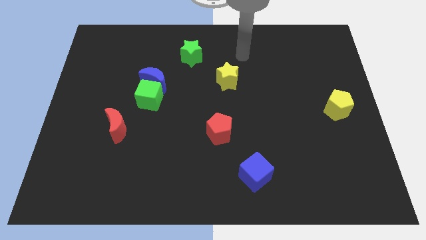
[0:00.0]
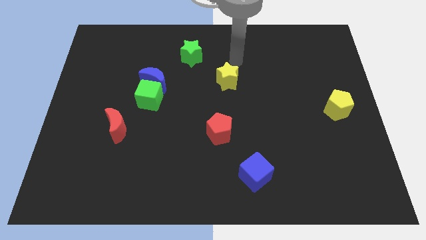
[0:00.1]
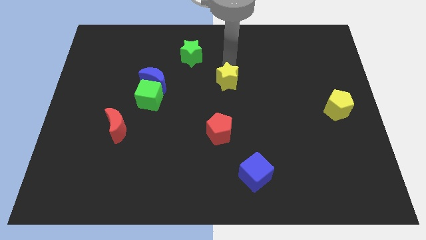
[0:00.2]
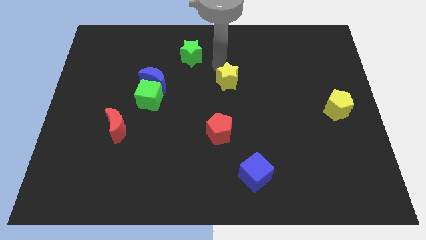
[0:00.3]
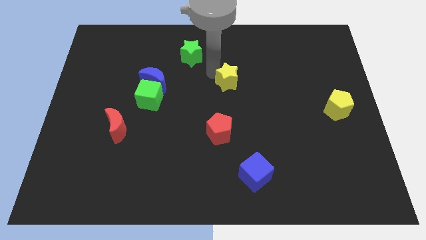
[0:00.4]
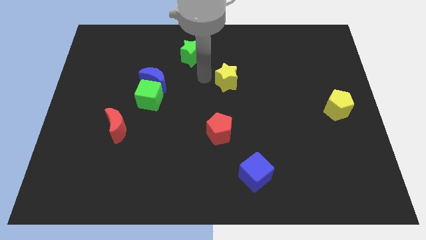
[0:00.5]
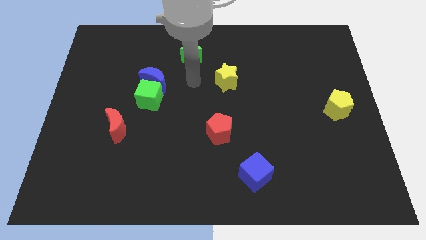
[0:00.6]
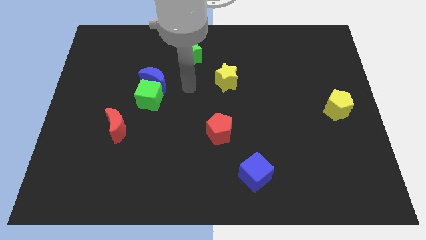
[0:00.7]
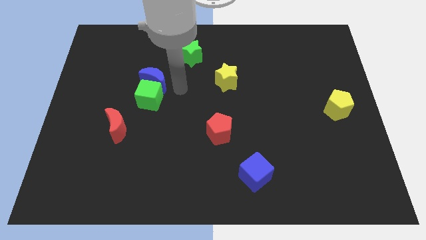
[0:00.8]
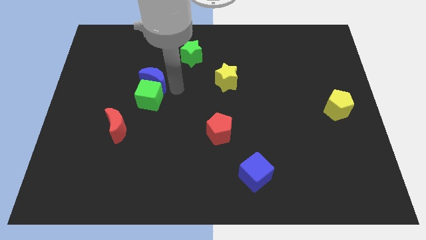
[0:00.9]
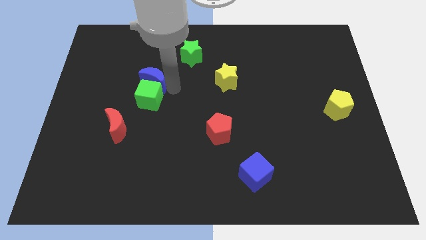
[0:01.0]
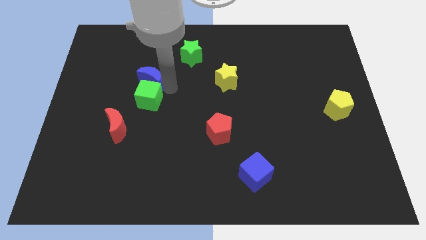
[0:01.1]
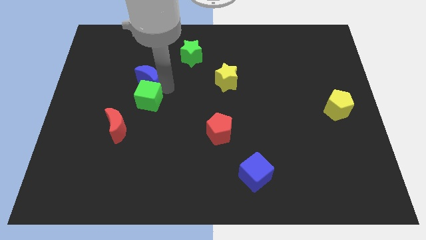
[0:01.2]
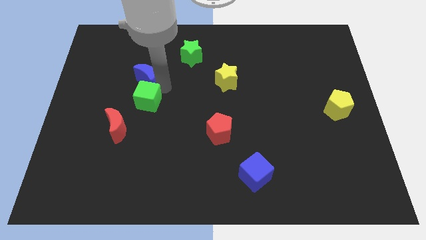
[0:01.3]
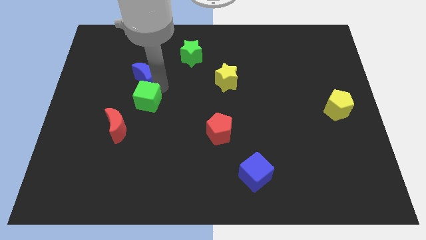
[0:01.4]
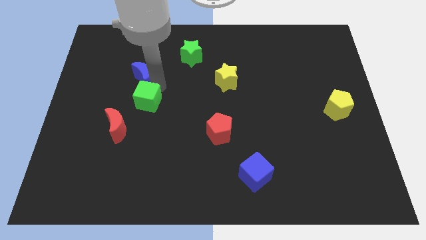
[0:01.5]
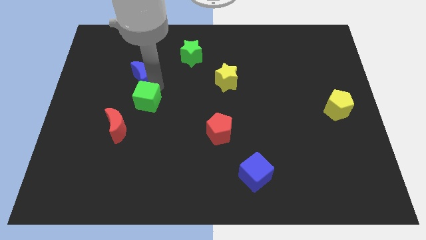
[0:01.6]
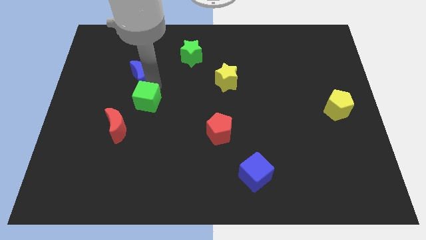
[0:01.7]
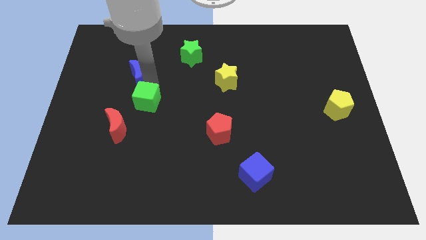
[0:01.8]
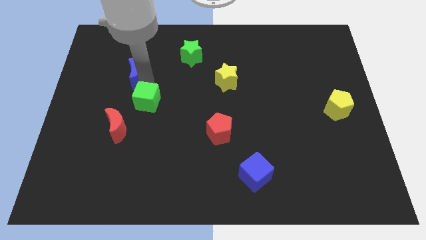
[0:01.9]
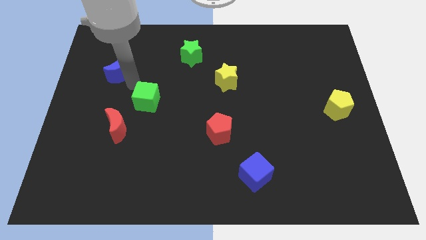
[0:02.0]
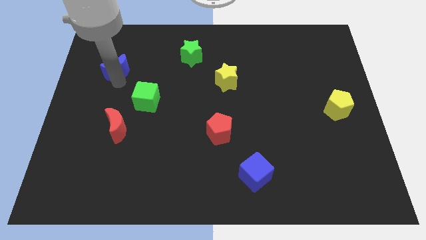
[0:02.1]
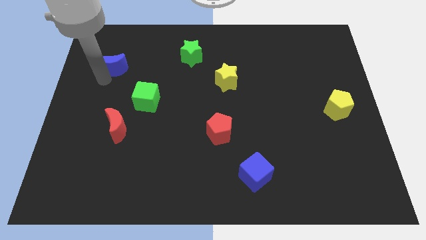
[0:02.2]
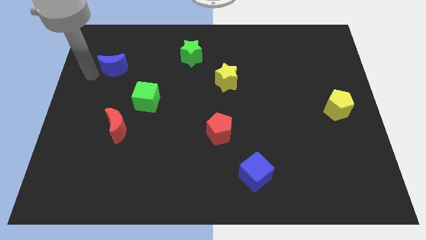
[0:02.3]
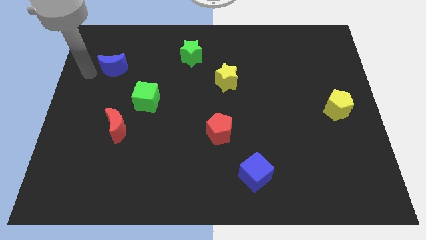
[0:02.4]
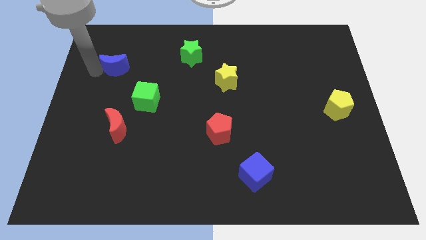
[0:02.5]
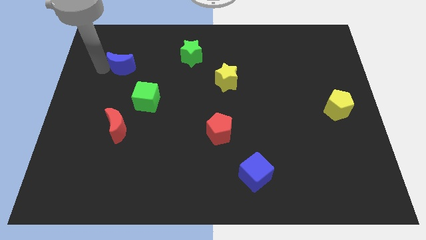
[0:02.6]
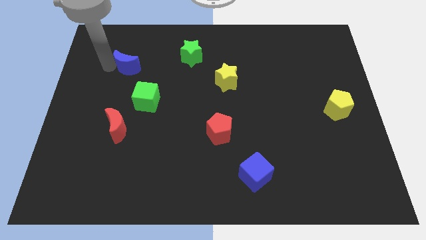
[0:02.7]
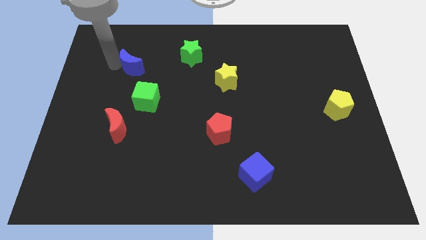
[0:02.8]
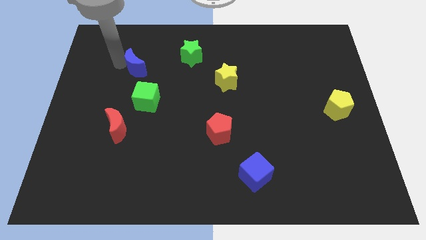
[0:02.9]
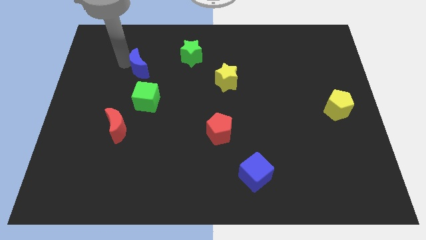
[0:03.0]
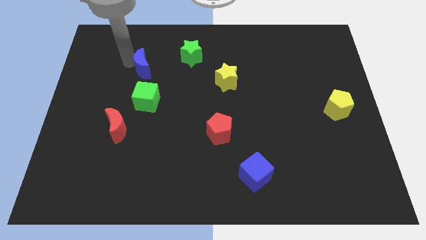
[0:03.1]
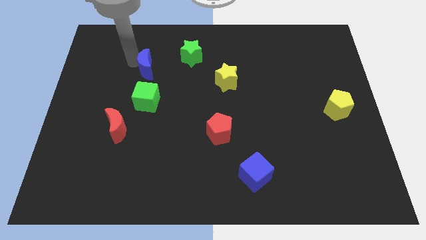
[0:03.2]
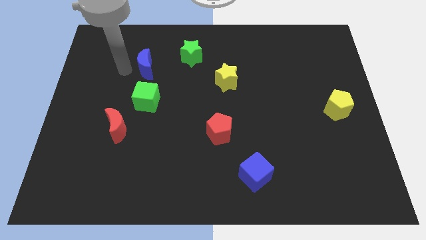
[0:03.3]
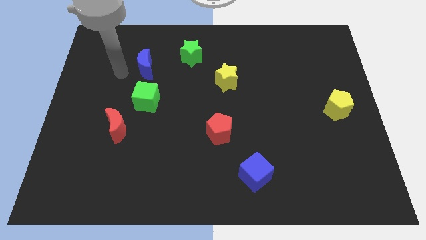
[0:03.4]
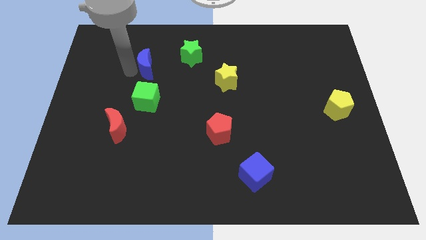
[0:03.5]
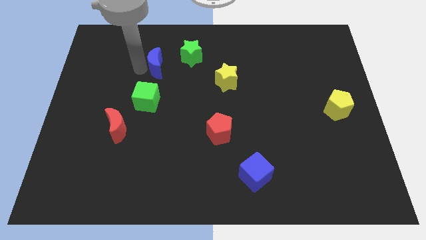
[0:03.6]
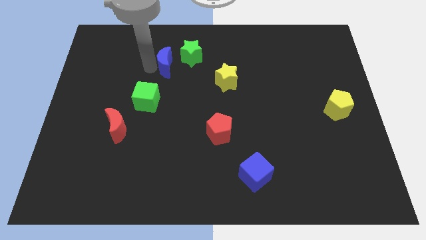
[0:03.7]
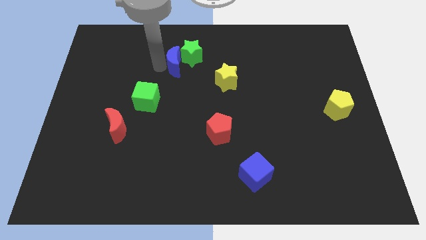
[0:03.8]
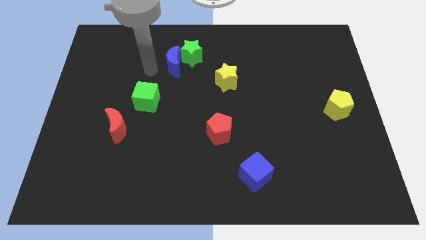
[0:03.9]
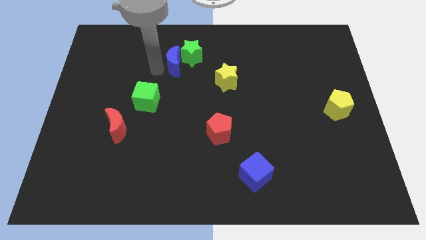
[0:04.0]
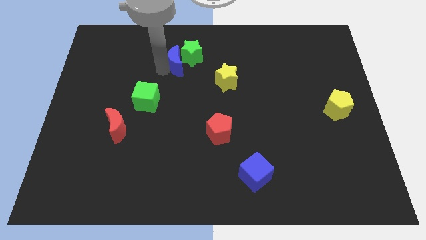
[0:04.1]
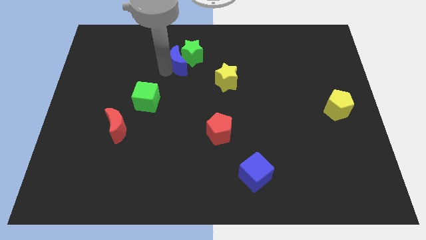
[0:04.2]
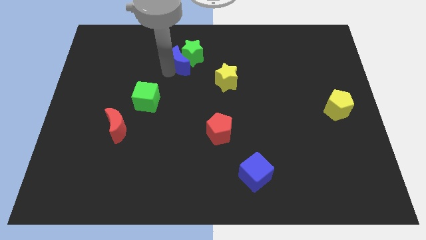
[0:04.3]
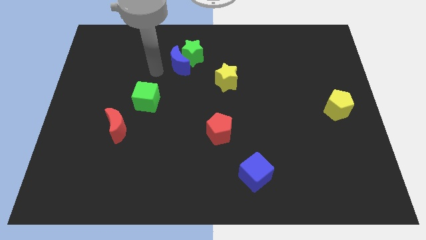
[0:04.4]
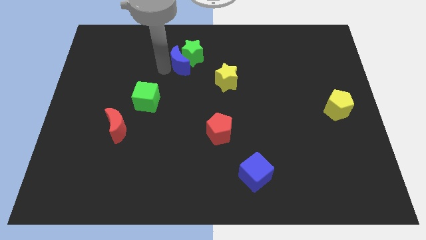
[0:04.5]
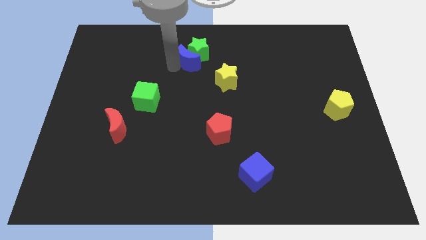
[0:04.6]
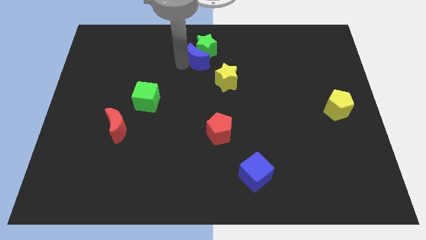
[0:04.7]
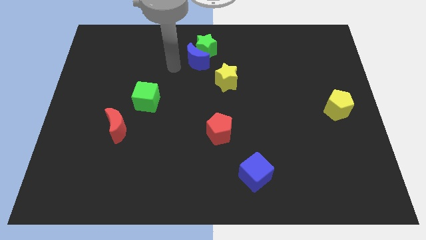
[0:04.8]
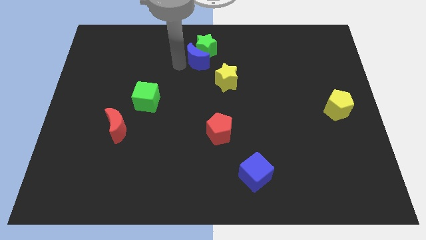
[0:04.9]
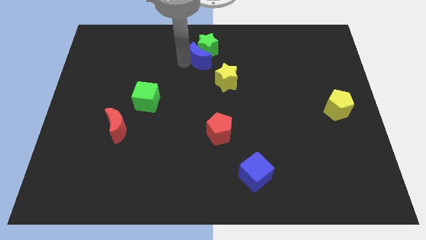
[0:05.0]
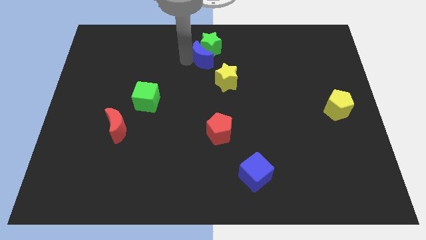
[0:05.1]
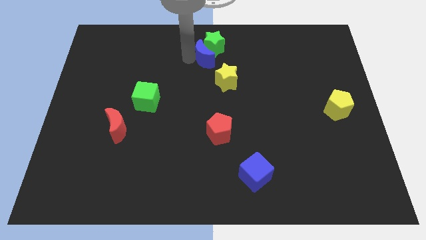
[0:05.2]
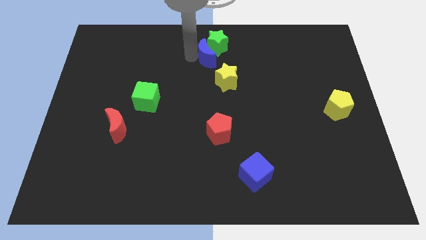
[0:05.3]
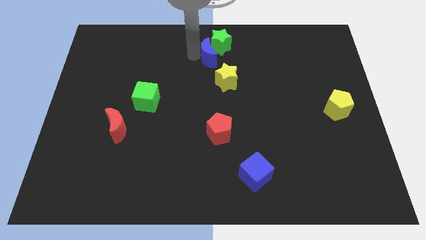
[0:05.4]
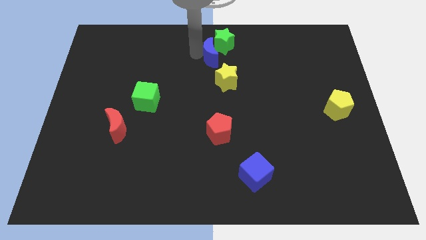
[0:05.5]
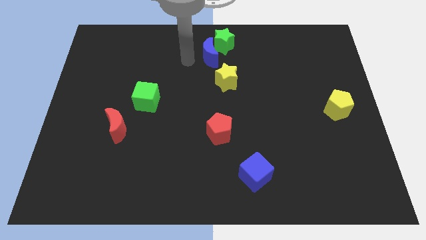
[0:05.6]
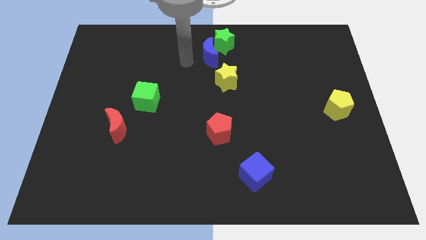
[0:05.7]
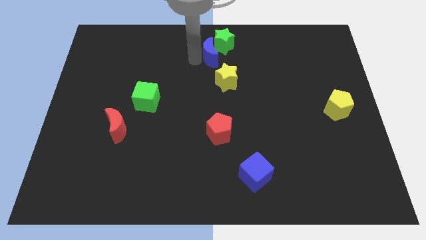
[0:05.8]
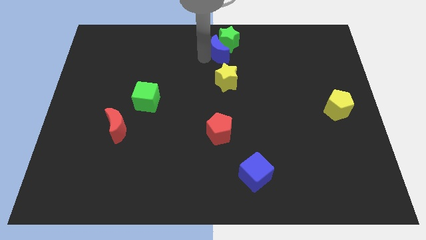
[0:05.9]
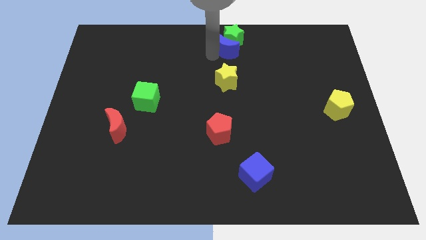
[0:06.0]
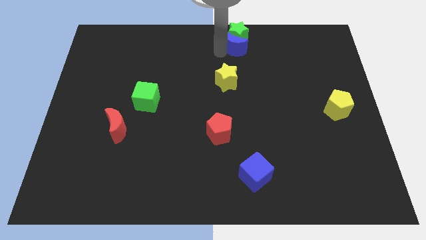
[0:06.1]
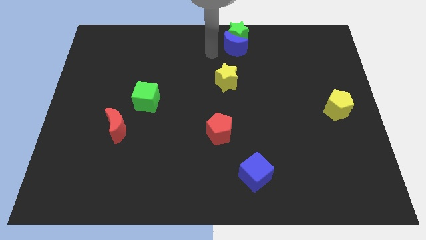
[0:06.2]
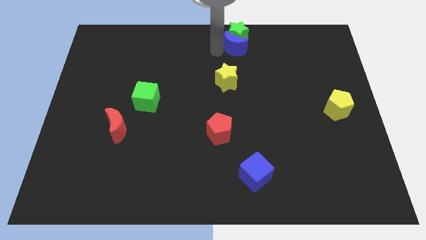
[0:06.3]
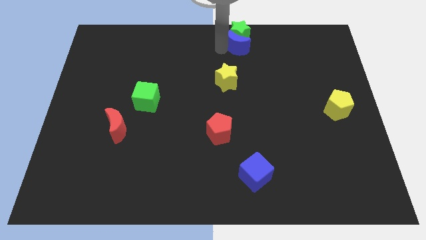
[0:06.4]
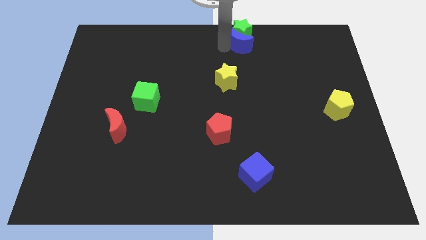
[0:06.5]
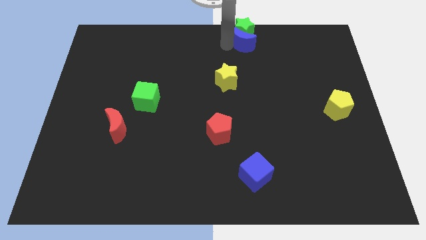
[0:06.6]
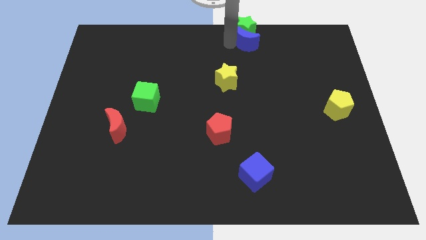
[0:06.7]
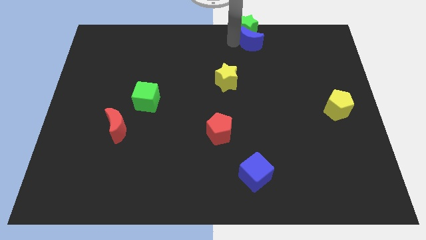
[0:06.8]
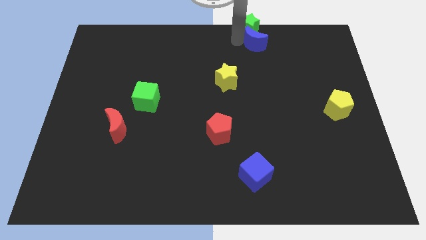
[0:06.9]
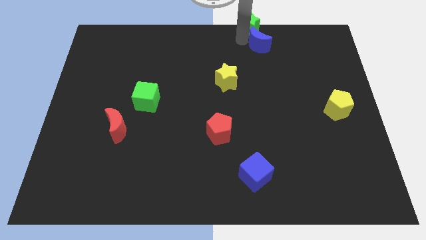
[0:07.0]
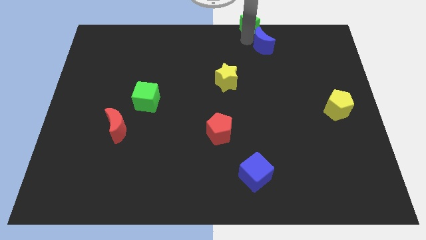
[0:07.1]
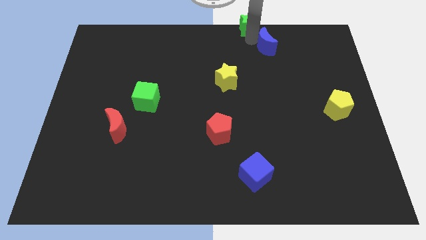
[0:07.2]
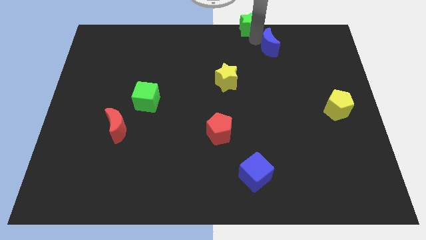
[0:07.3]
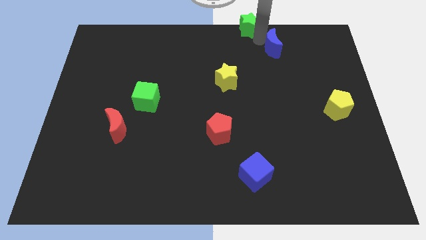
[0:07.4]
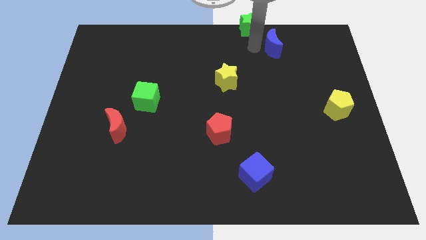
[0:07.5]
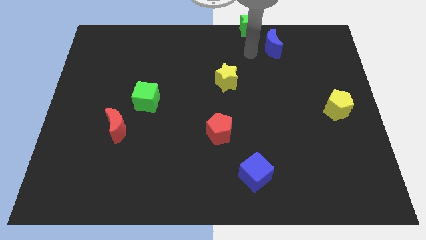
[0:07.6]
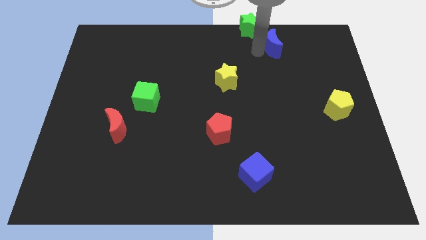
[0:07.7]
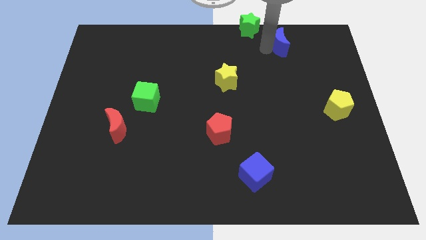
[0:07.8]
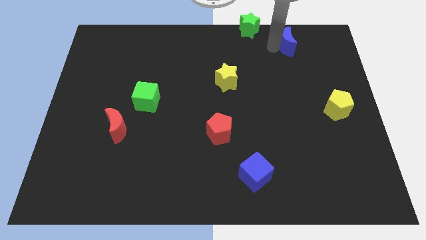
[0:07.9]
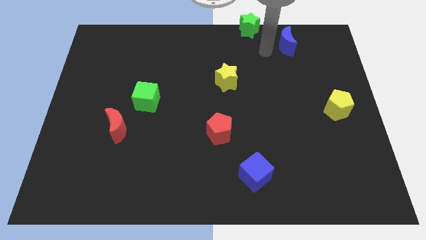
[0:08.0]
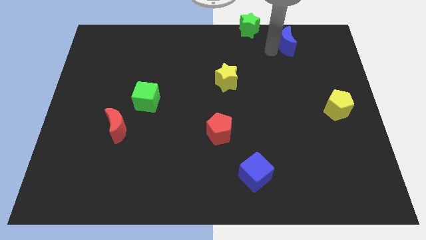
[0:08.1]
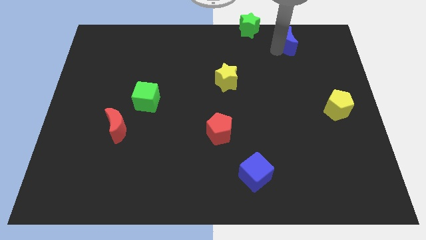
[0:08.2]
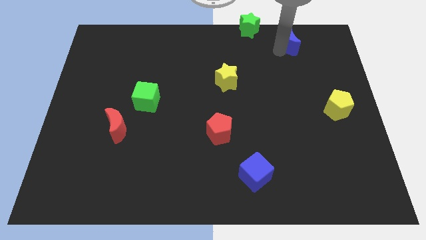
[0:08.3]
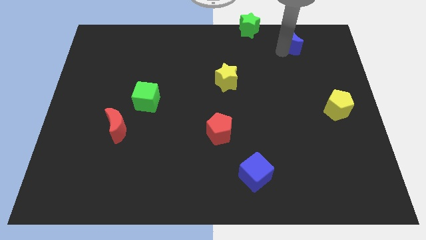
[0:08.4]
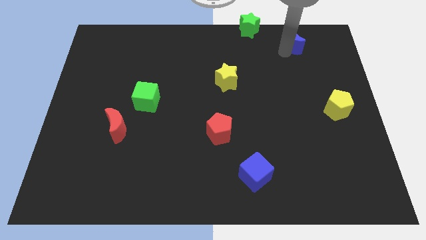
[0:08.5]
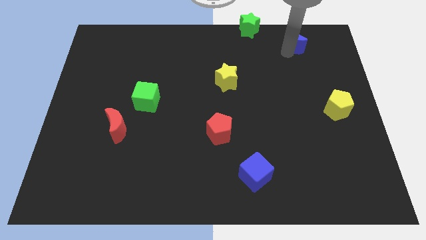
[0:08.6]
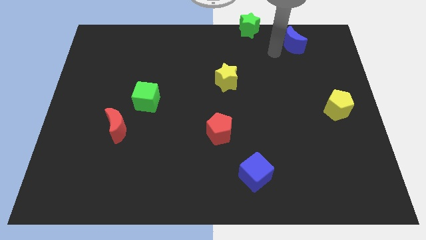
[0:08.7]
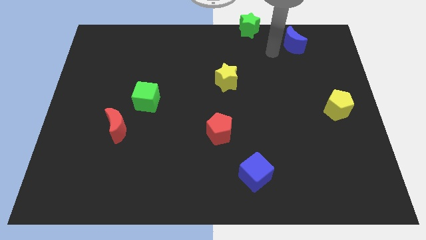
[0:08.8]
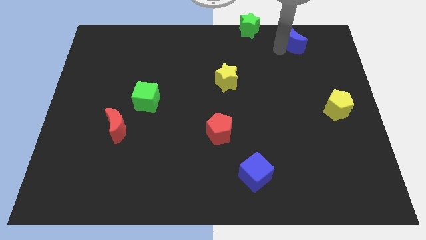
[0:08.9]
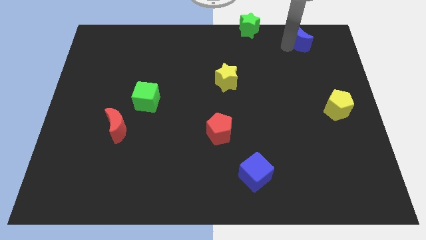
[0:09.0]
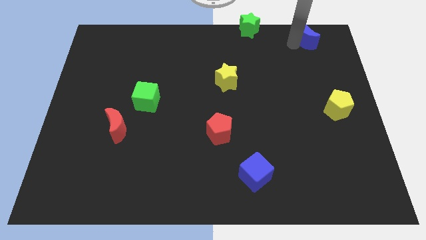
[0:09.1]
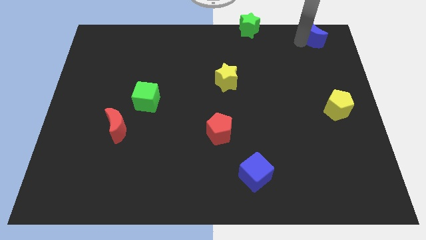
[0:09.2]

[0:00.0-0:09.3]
slide the blue moon to the top right
